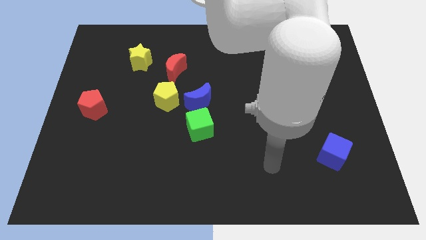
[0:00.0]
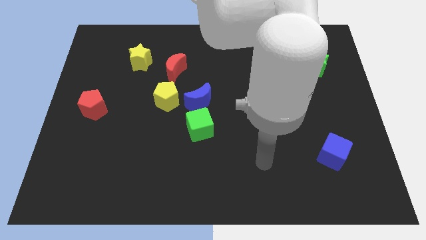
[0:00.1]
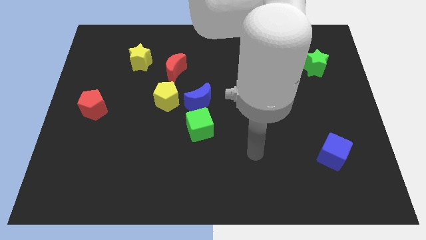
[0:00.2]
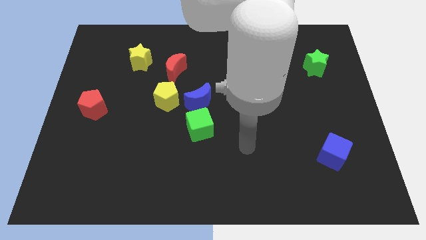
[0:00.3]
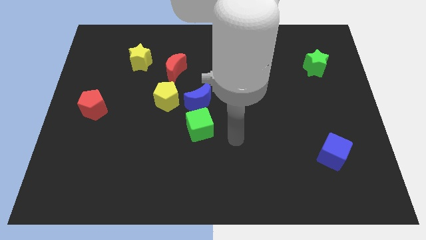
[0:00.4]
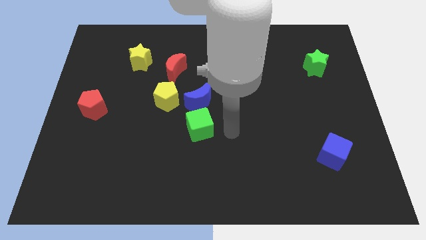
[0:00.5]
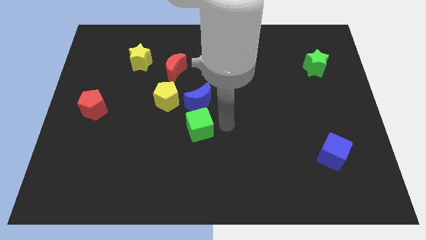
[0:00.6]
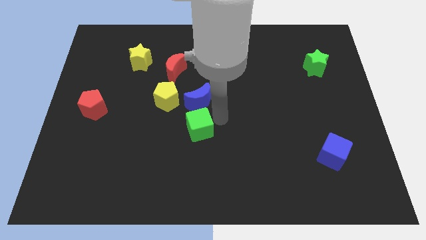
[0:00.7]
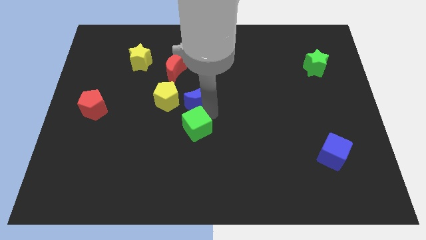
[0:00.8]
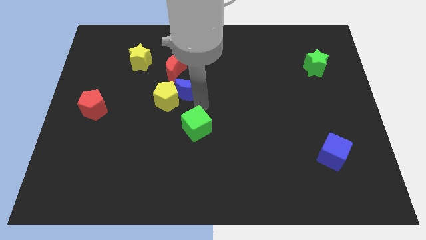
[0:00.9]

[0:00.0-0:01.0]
pull the green cube apart from the blue moon

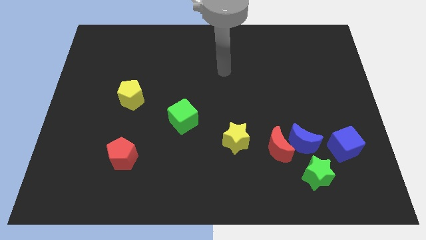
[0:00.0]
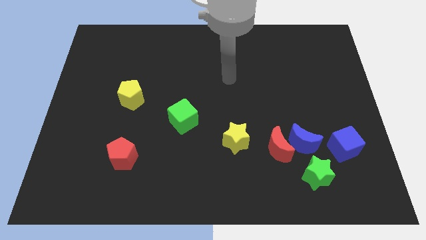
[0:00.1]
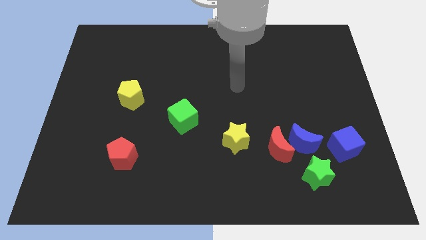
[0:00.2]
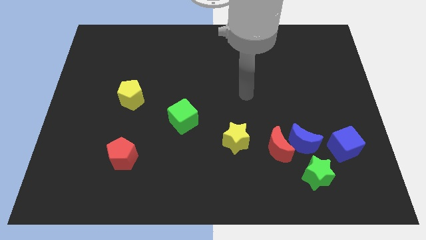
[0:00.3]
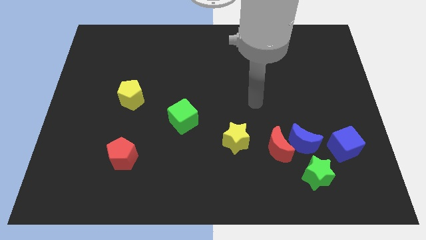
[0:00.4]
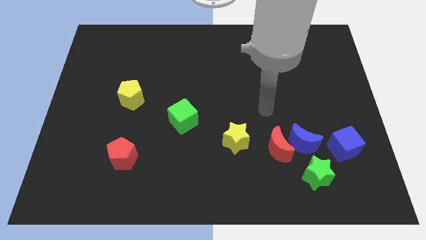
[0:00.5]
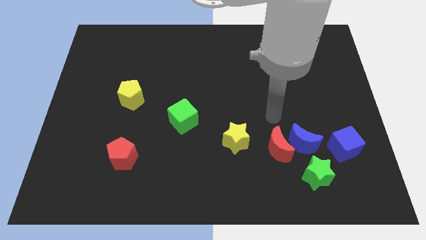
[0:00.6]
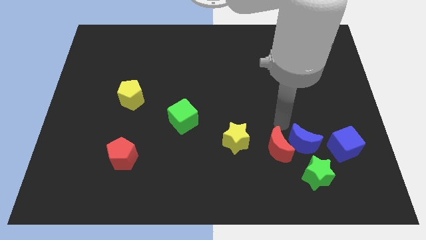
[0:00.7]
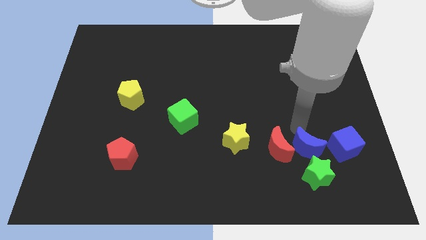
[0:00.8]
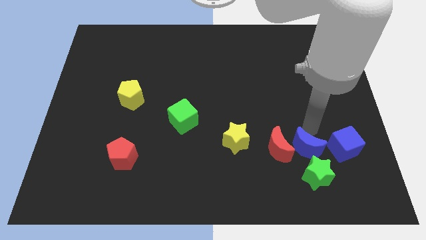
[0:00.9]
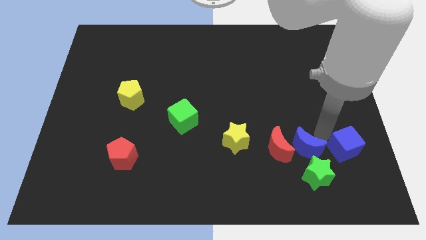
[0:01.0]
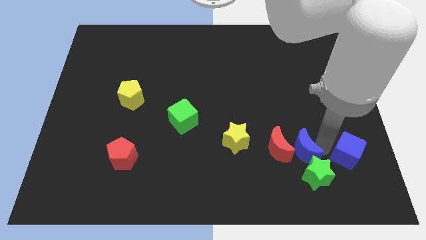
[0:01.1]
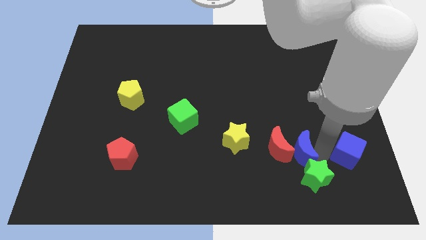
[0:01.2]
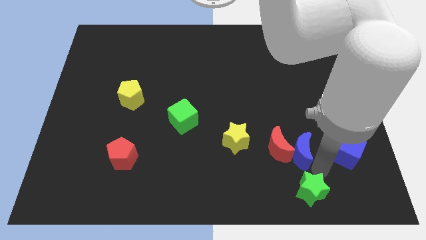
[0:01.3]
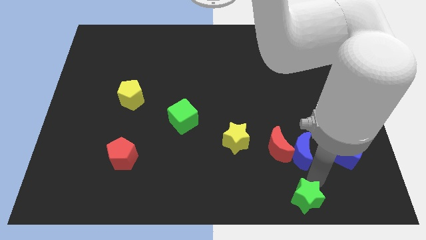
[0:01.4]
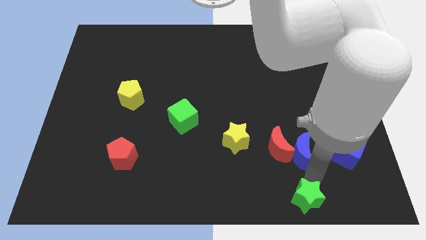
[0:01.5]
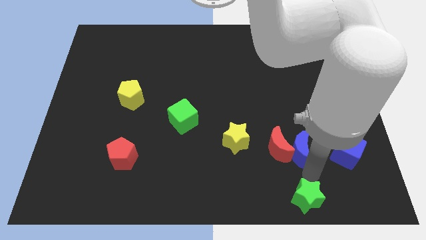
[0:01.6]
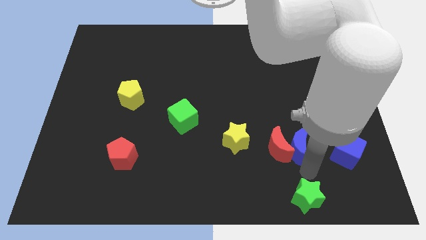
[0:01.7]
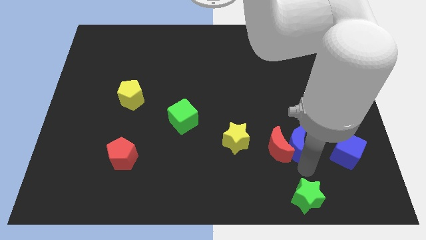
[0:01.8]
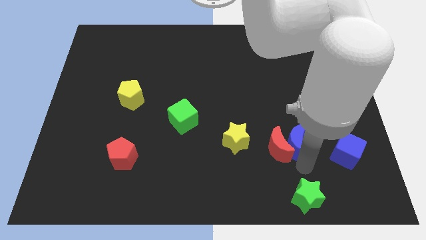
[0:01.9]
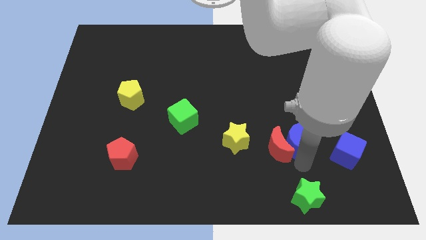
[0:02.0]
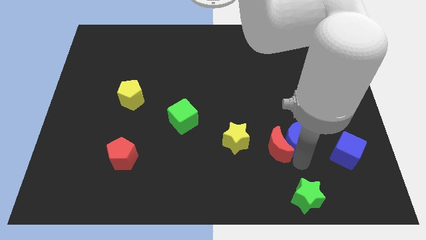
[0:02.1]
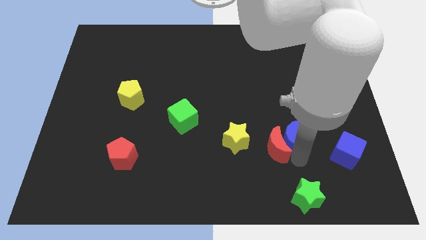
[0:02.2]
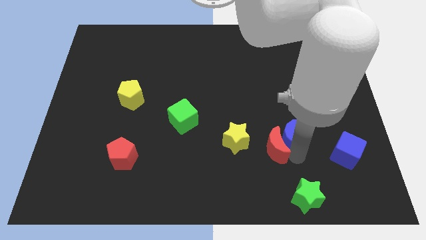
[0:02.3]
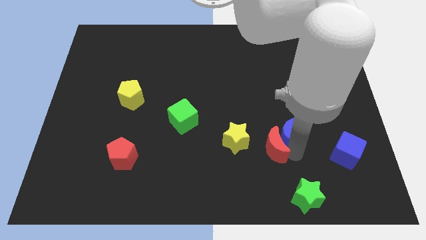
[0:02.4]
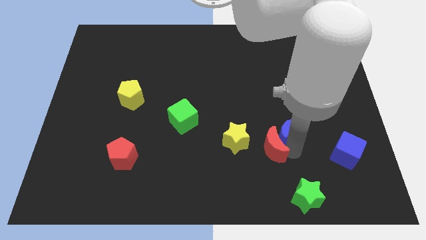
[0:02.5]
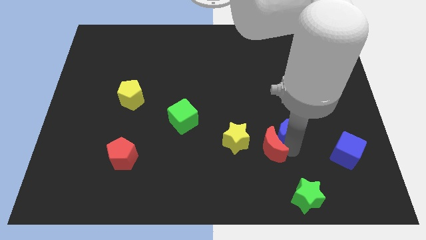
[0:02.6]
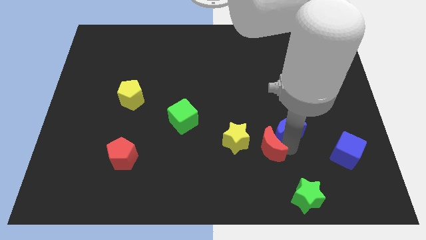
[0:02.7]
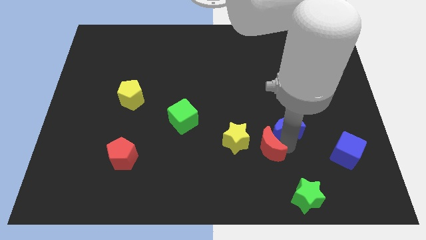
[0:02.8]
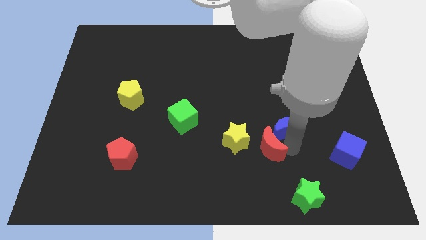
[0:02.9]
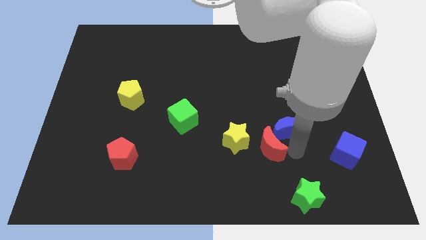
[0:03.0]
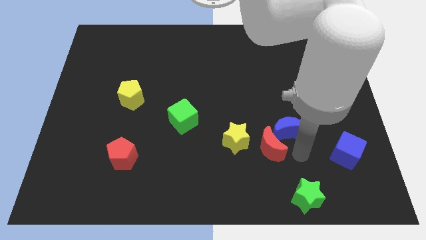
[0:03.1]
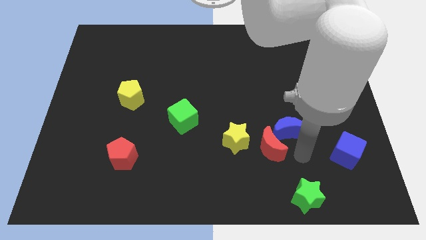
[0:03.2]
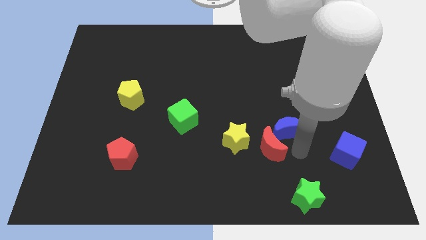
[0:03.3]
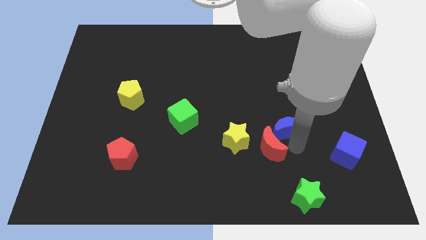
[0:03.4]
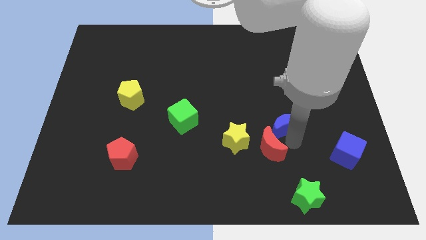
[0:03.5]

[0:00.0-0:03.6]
move the blue moon away from the group of blocks

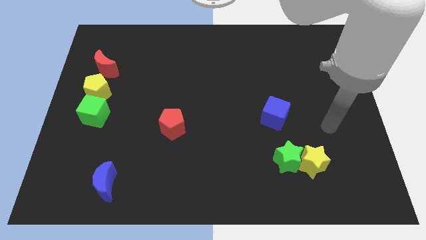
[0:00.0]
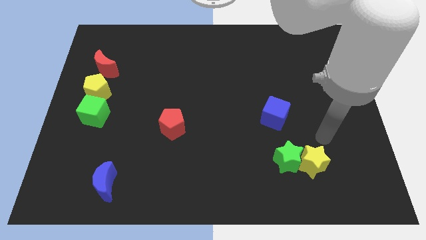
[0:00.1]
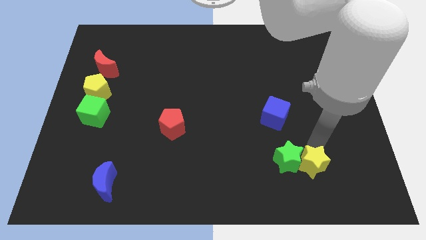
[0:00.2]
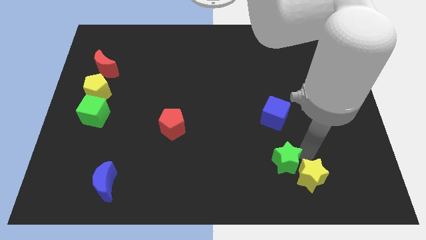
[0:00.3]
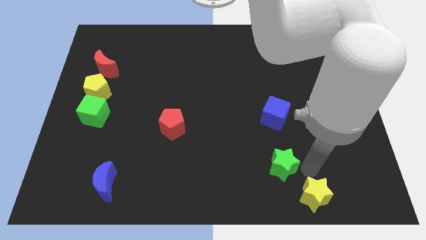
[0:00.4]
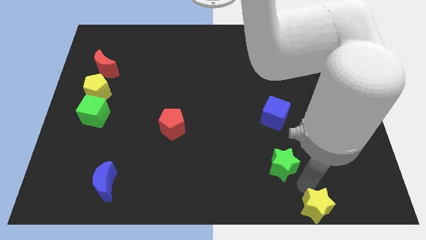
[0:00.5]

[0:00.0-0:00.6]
move the green star away from the yellow star

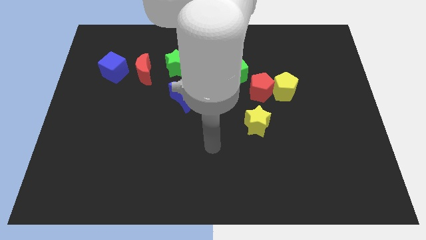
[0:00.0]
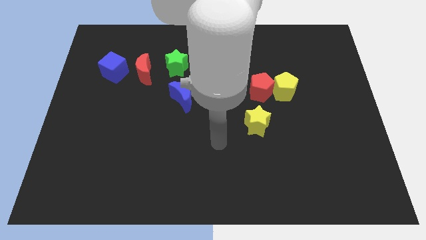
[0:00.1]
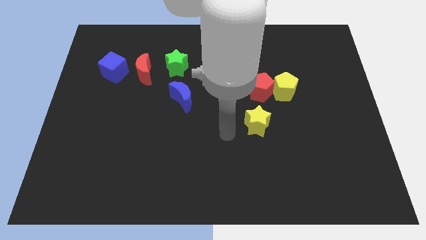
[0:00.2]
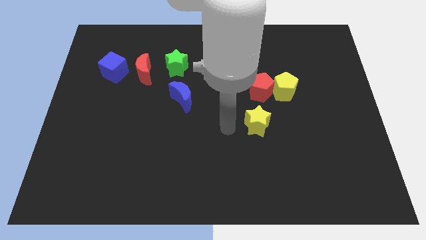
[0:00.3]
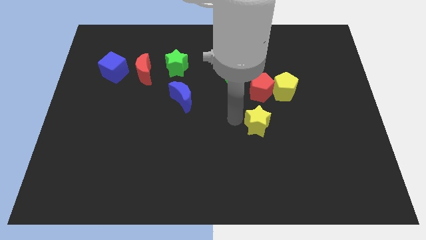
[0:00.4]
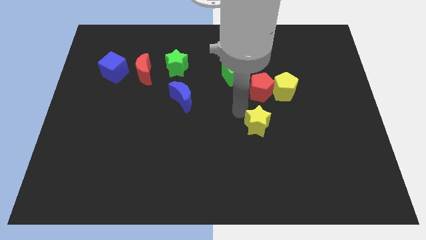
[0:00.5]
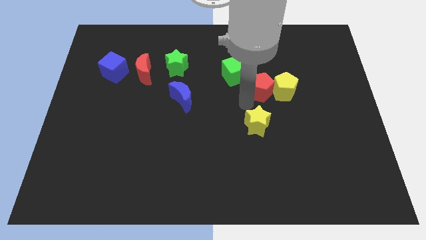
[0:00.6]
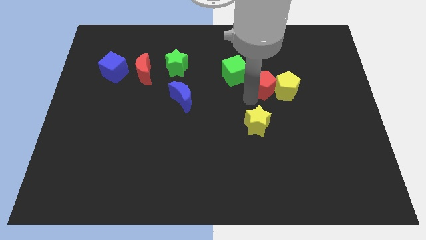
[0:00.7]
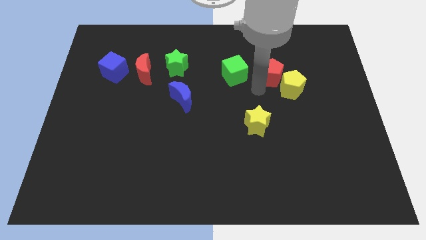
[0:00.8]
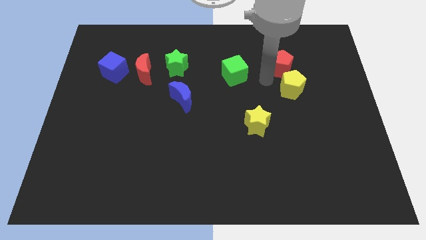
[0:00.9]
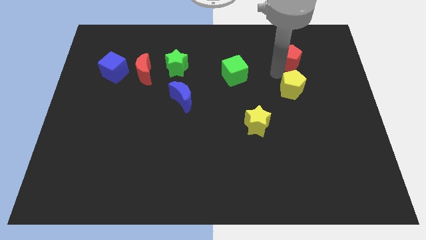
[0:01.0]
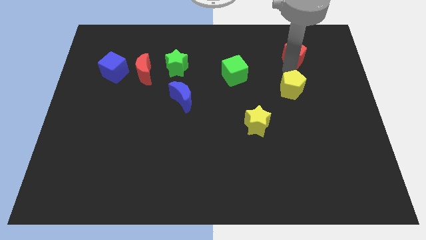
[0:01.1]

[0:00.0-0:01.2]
separate the yellow pentagon from the red pentagon

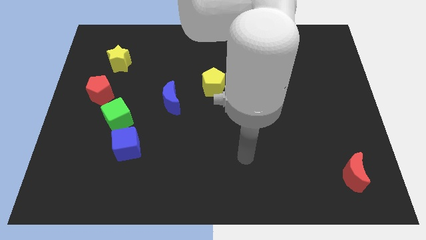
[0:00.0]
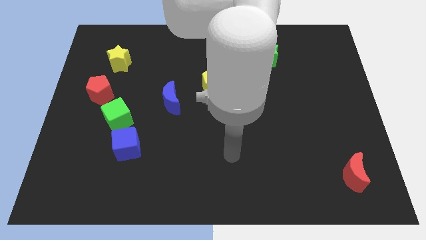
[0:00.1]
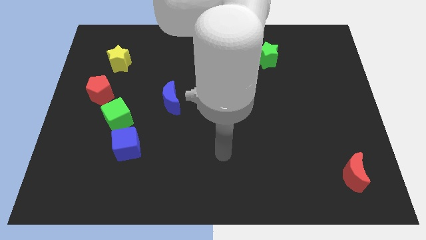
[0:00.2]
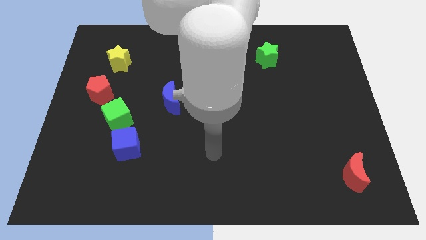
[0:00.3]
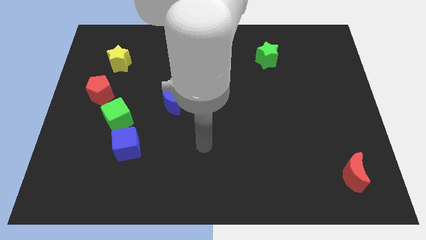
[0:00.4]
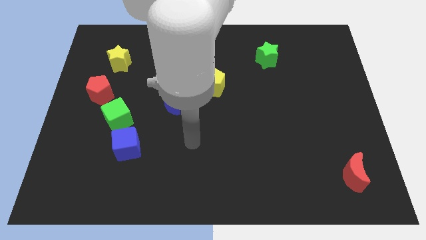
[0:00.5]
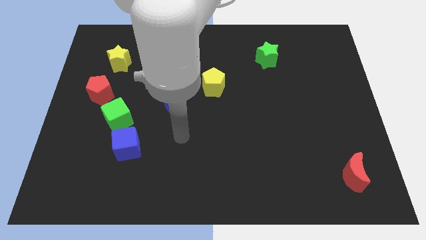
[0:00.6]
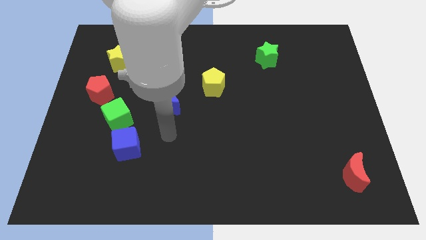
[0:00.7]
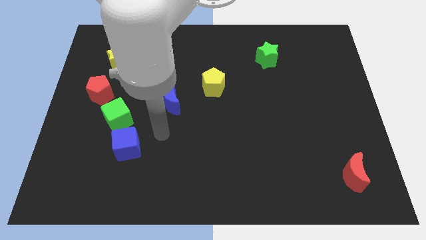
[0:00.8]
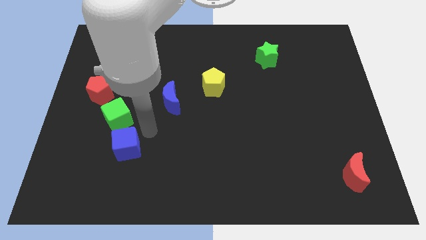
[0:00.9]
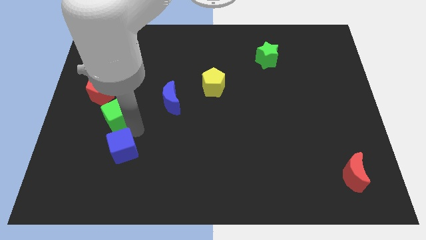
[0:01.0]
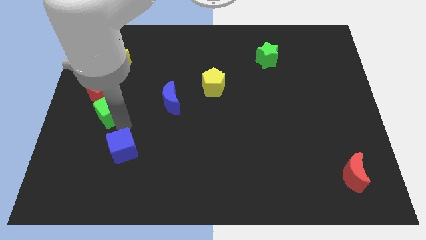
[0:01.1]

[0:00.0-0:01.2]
separate the blue cube from the green cube

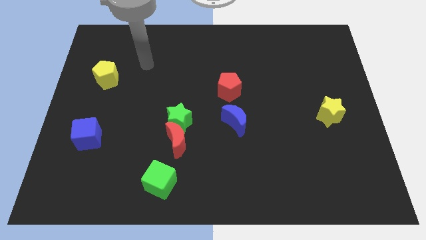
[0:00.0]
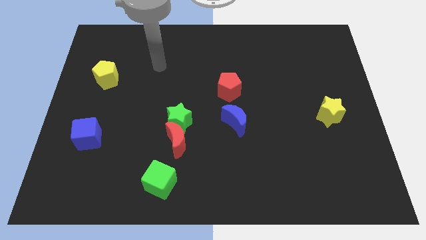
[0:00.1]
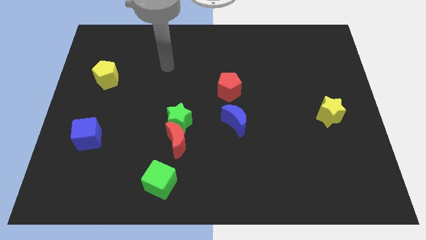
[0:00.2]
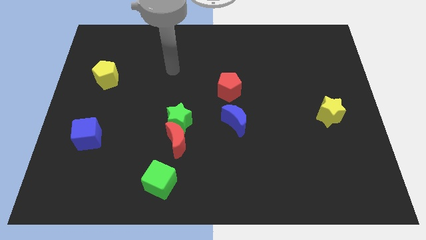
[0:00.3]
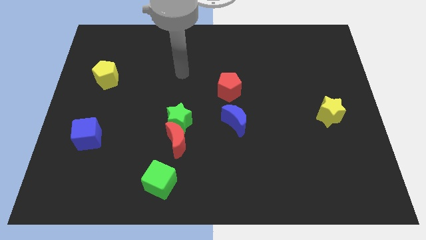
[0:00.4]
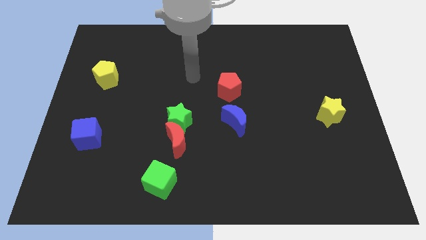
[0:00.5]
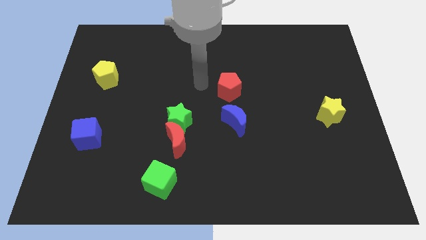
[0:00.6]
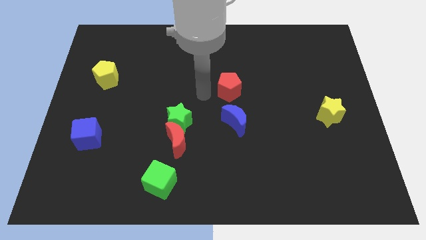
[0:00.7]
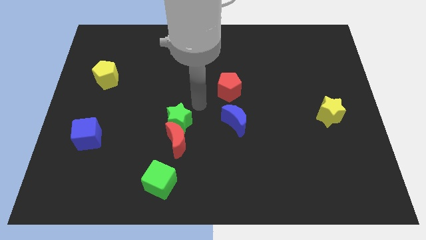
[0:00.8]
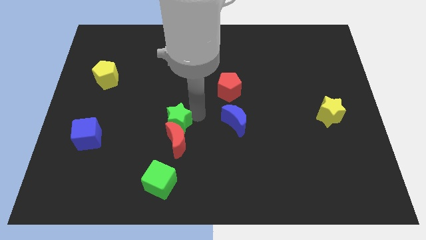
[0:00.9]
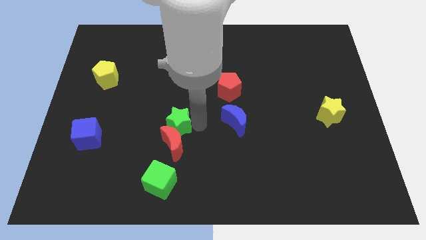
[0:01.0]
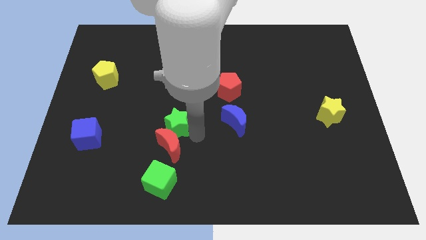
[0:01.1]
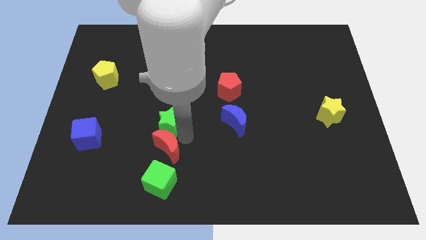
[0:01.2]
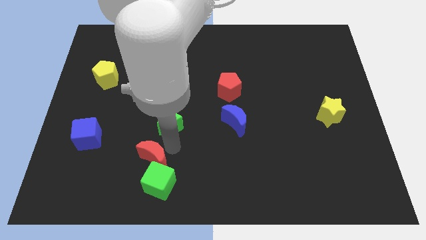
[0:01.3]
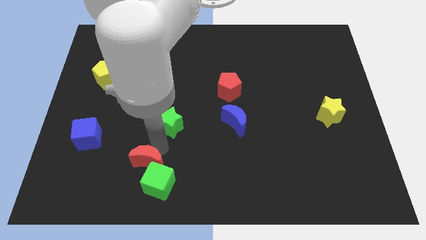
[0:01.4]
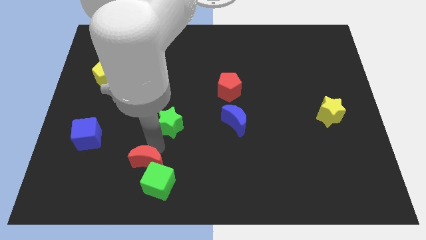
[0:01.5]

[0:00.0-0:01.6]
move the green star away from the red moon

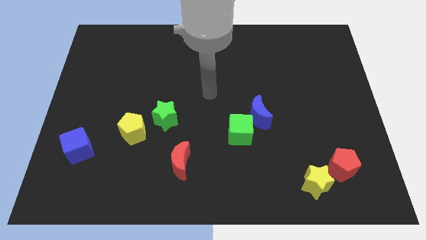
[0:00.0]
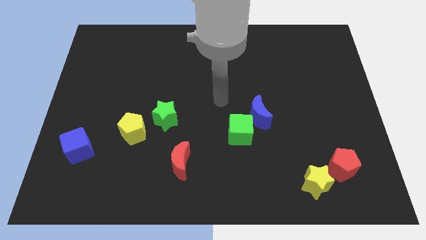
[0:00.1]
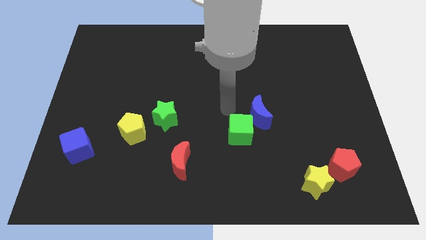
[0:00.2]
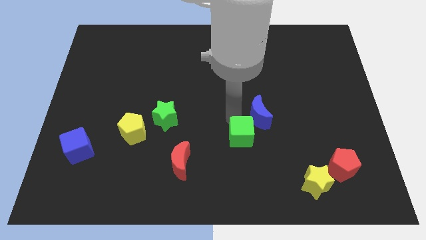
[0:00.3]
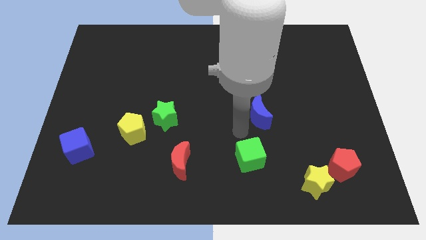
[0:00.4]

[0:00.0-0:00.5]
move the blue moon away from the green cube
